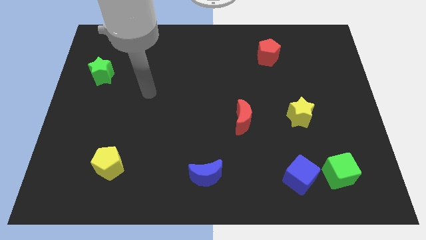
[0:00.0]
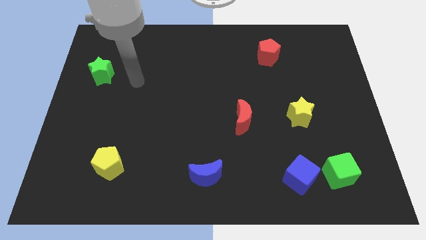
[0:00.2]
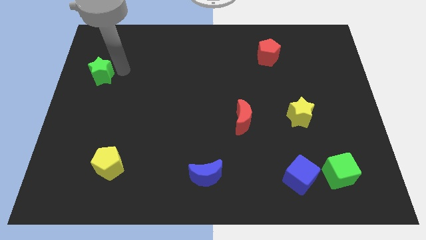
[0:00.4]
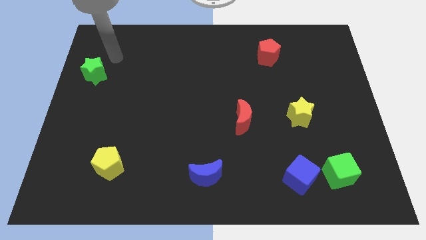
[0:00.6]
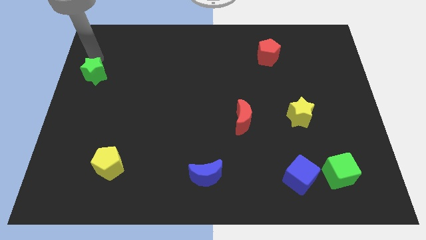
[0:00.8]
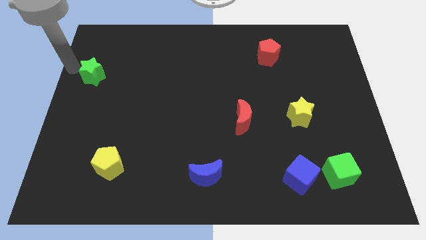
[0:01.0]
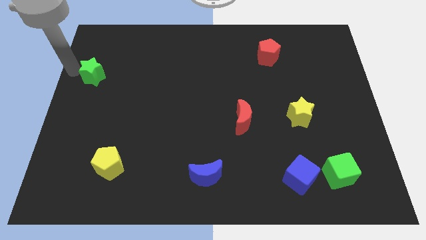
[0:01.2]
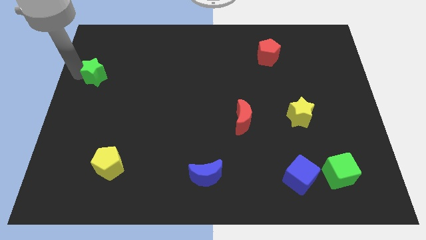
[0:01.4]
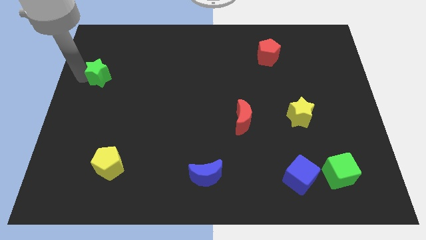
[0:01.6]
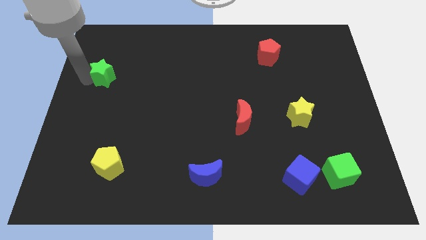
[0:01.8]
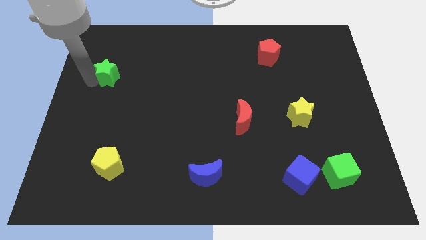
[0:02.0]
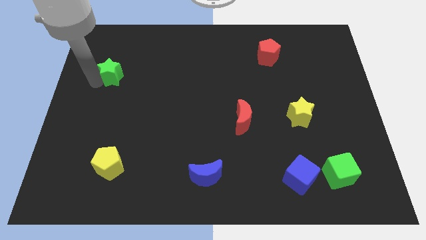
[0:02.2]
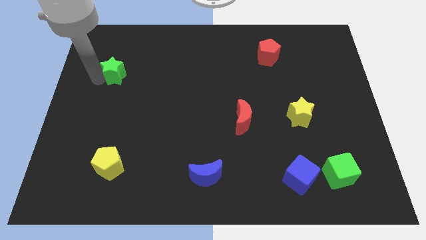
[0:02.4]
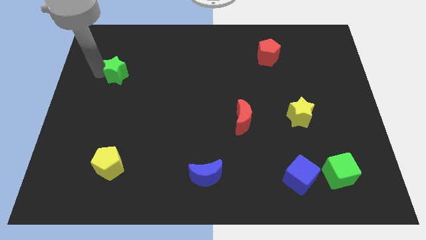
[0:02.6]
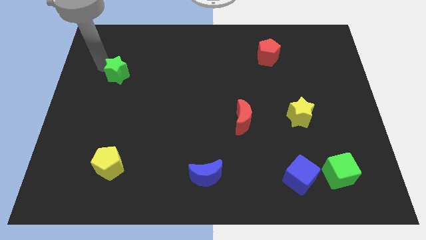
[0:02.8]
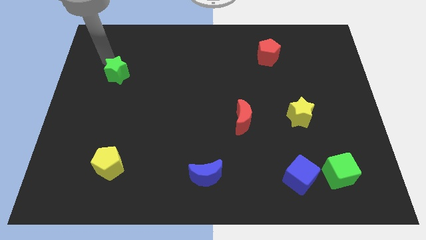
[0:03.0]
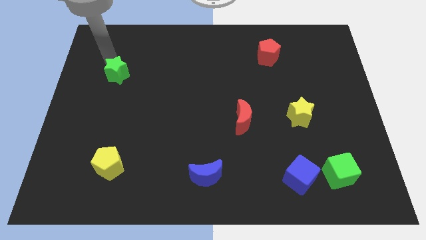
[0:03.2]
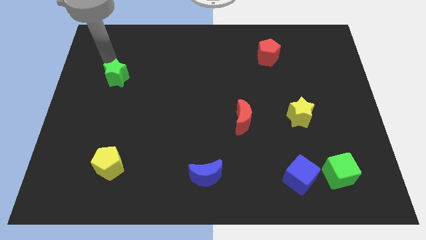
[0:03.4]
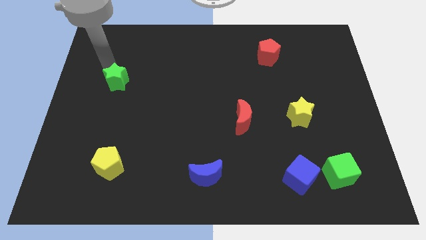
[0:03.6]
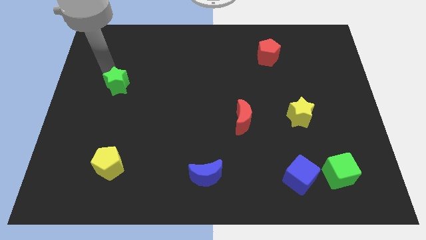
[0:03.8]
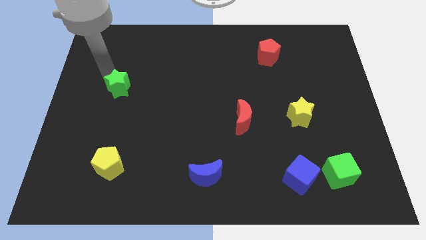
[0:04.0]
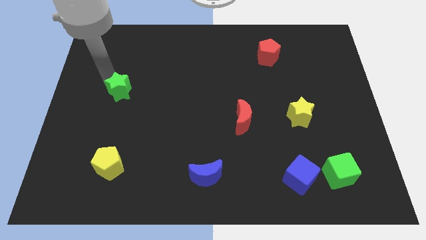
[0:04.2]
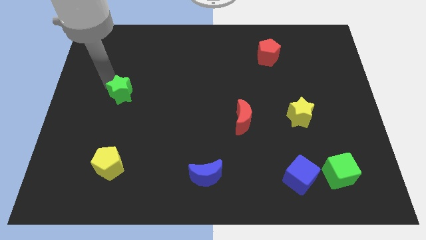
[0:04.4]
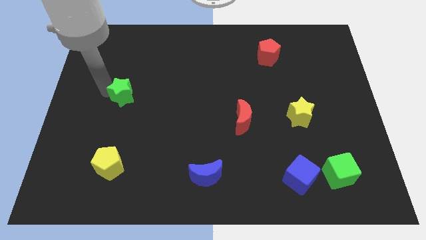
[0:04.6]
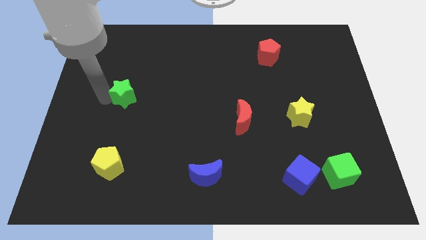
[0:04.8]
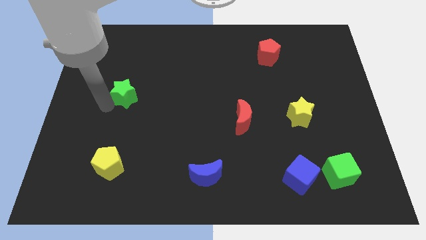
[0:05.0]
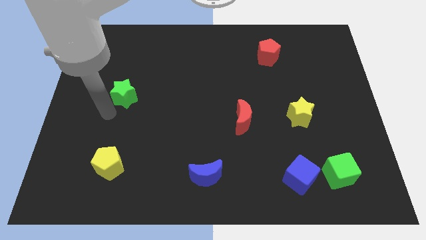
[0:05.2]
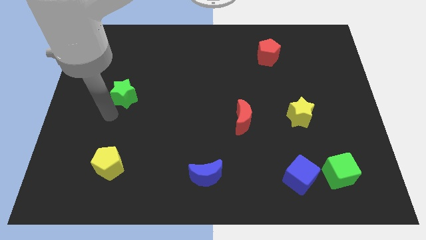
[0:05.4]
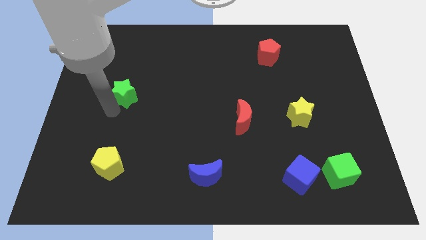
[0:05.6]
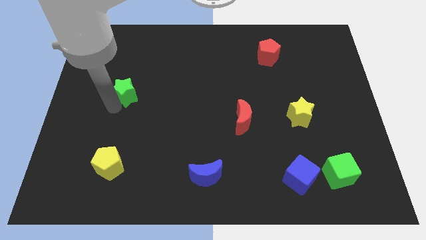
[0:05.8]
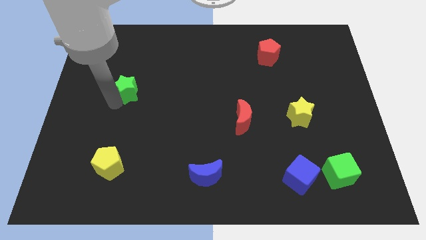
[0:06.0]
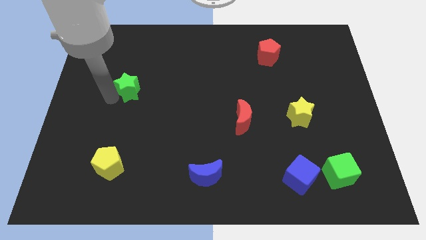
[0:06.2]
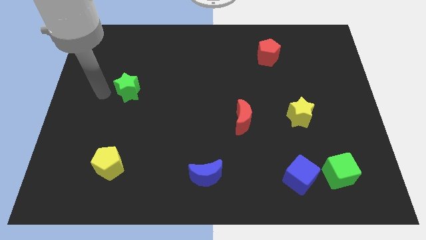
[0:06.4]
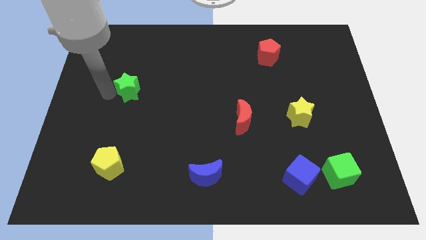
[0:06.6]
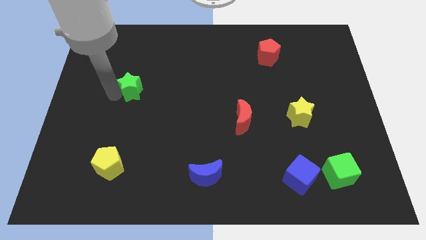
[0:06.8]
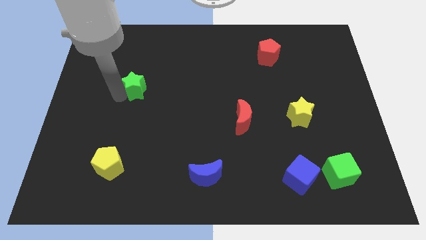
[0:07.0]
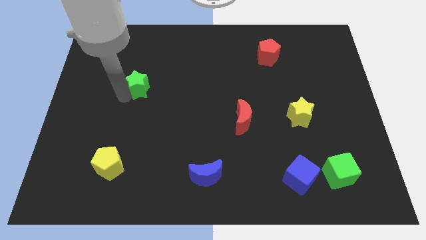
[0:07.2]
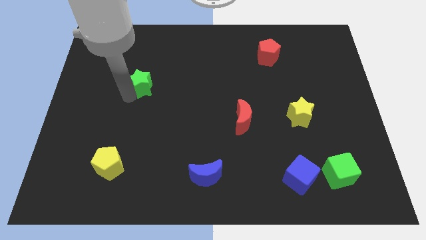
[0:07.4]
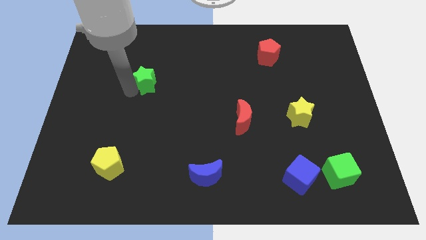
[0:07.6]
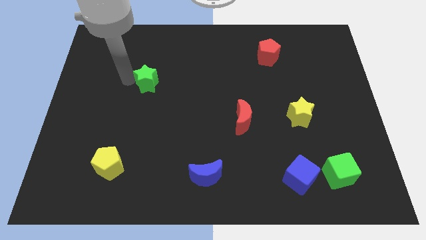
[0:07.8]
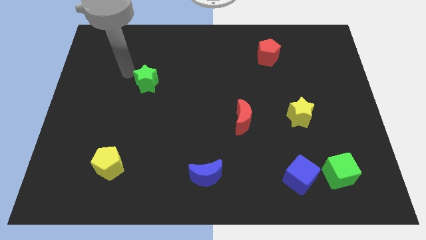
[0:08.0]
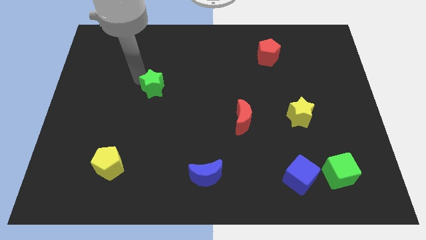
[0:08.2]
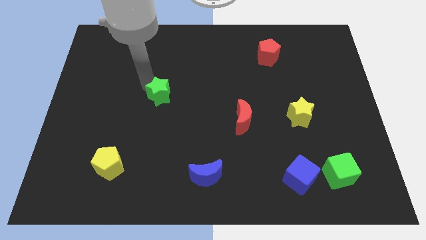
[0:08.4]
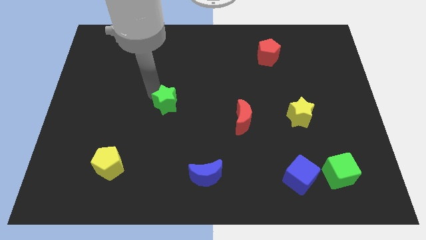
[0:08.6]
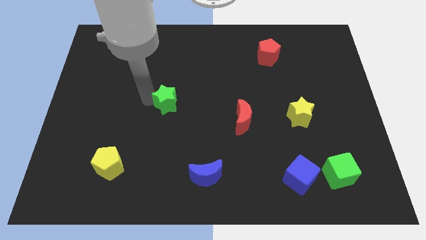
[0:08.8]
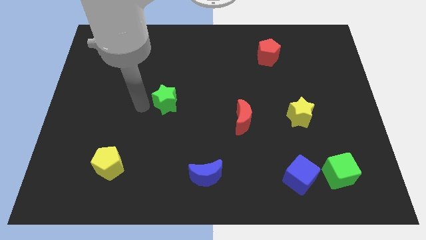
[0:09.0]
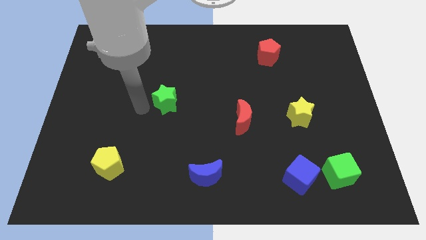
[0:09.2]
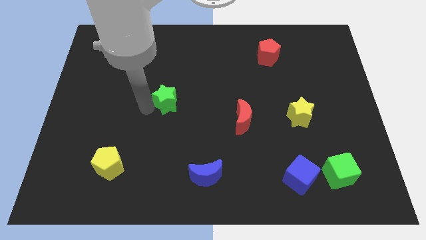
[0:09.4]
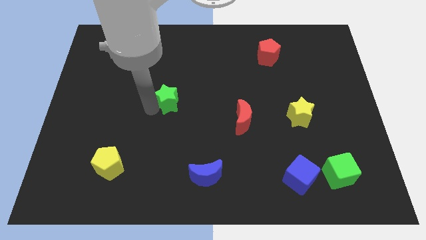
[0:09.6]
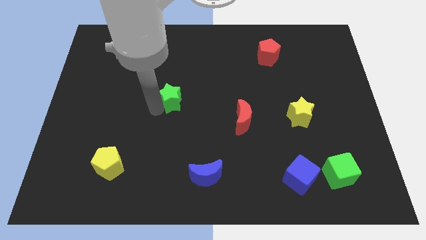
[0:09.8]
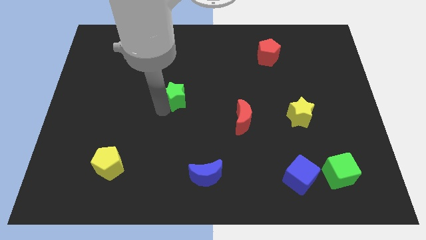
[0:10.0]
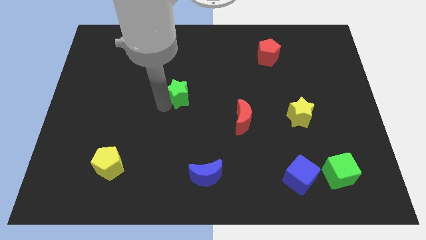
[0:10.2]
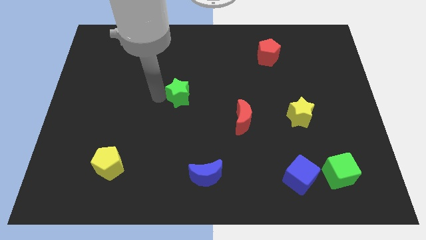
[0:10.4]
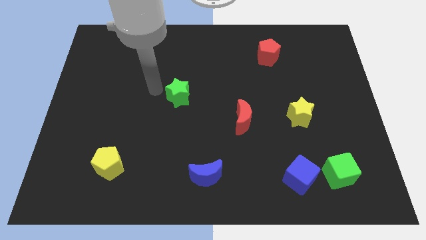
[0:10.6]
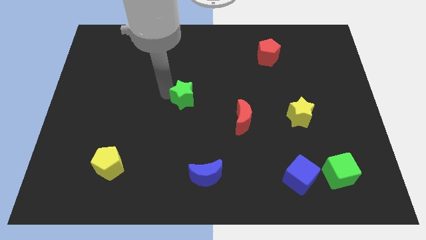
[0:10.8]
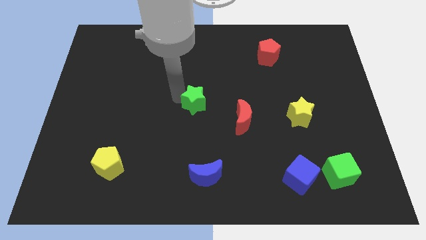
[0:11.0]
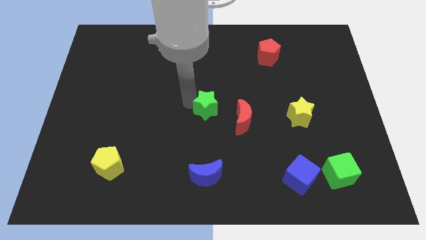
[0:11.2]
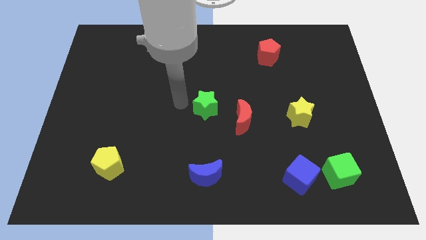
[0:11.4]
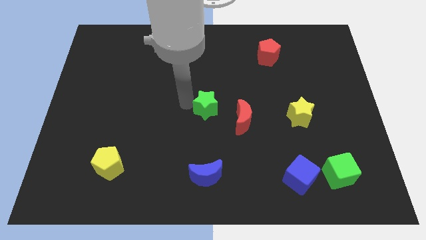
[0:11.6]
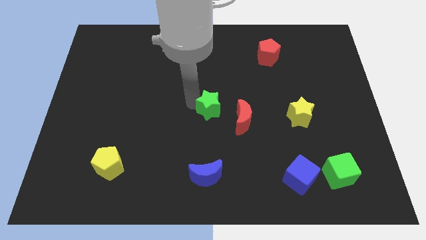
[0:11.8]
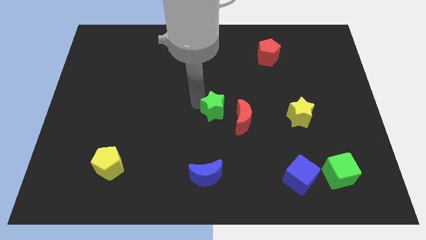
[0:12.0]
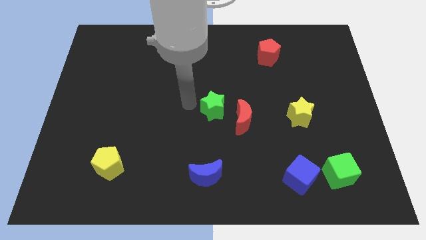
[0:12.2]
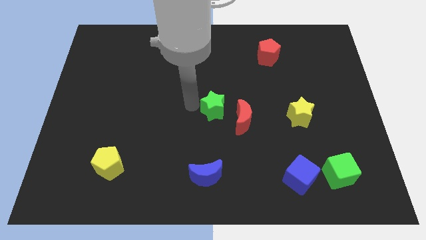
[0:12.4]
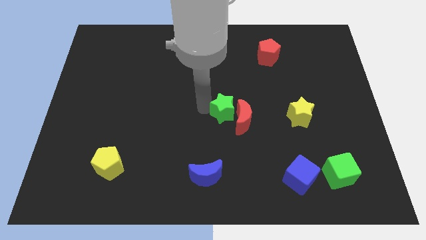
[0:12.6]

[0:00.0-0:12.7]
slide the green star towards the red moon

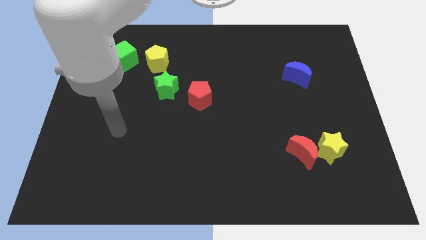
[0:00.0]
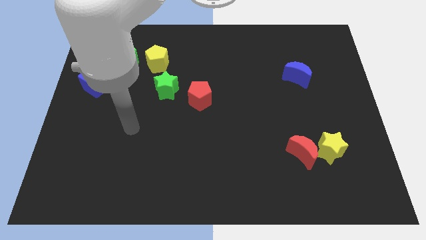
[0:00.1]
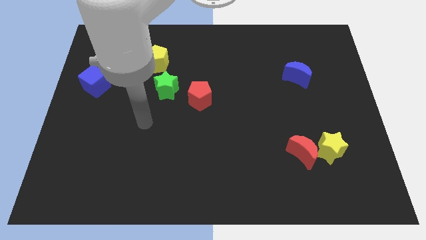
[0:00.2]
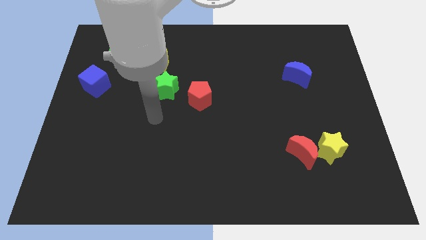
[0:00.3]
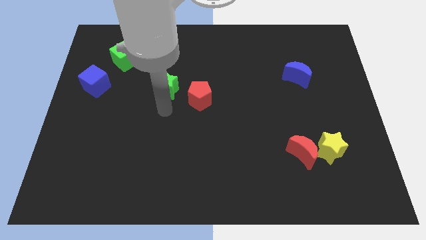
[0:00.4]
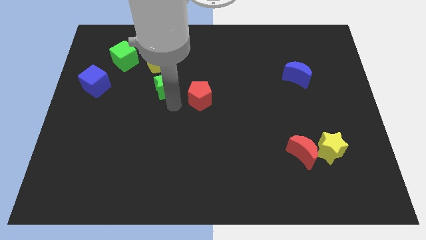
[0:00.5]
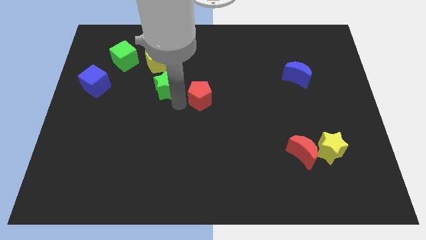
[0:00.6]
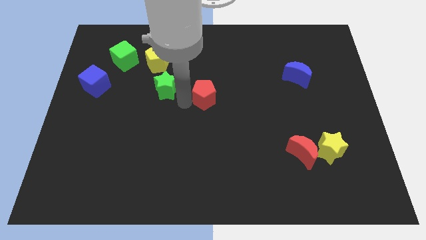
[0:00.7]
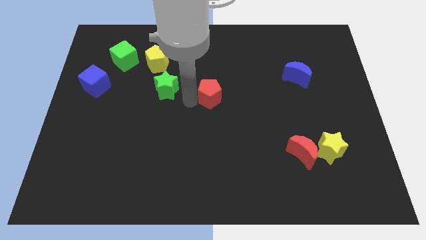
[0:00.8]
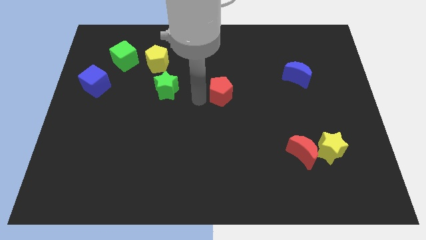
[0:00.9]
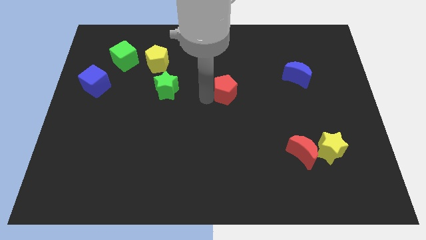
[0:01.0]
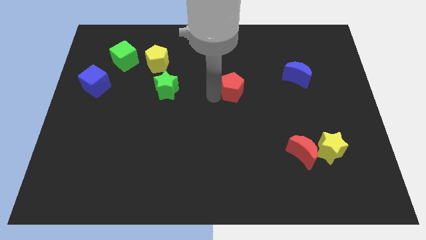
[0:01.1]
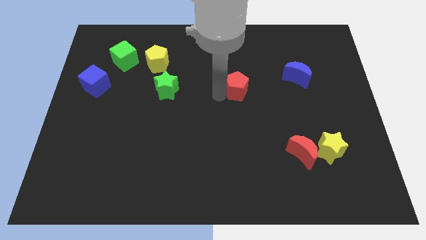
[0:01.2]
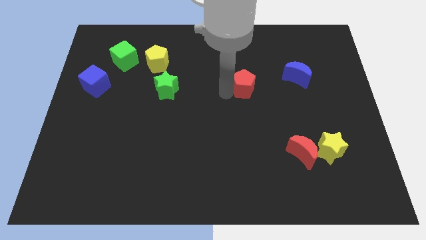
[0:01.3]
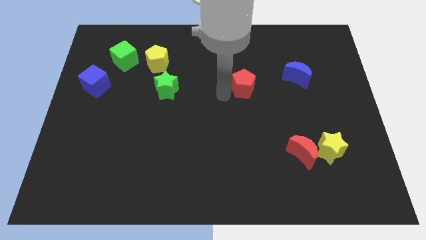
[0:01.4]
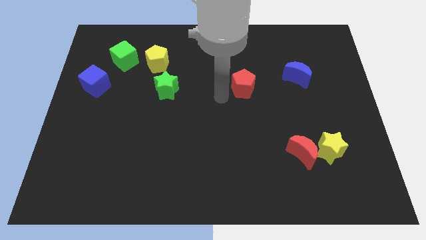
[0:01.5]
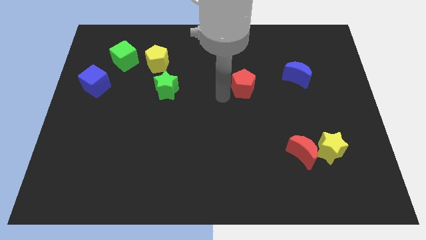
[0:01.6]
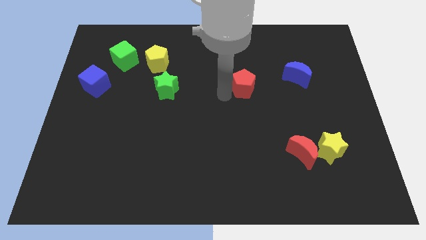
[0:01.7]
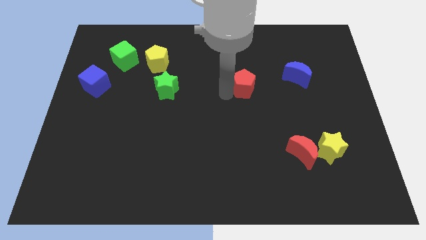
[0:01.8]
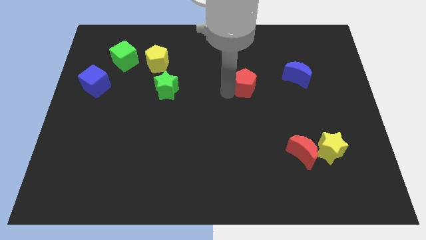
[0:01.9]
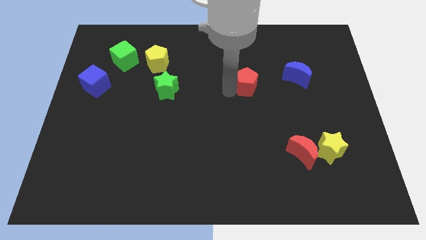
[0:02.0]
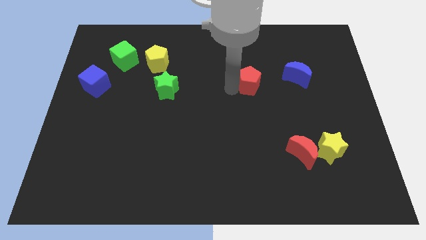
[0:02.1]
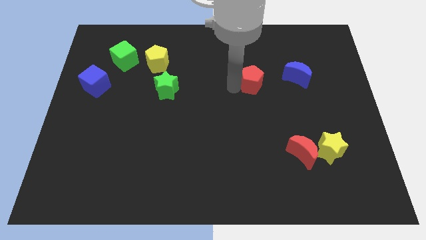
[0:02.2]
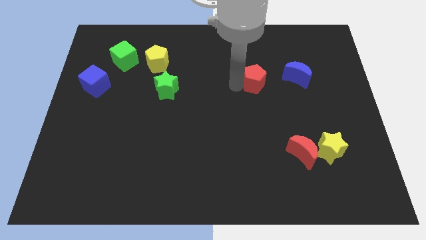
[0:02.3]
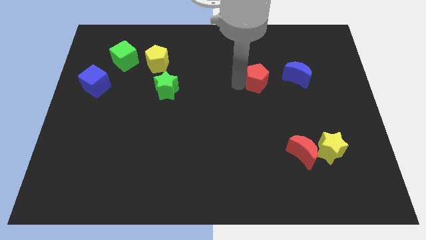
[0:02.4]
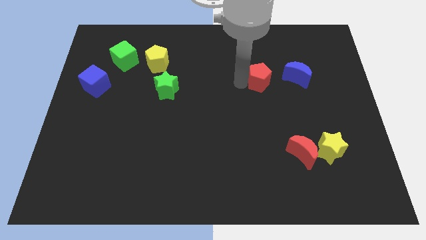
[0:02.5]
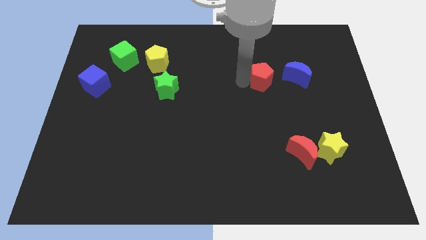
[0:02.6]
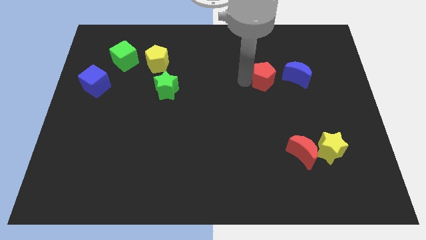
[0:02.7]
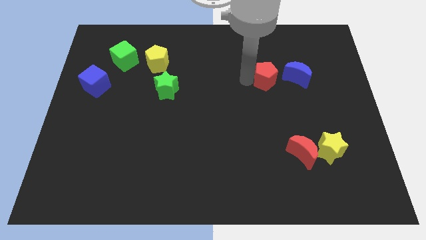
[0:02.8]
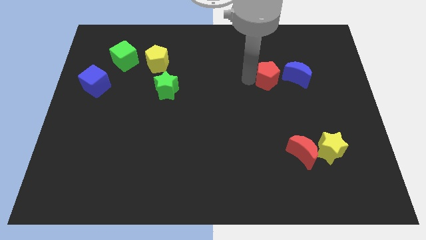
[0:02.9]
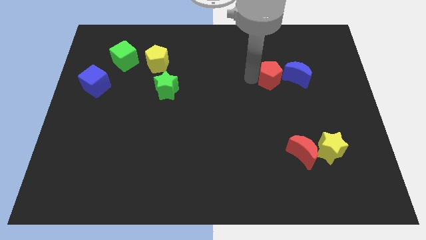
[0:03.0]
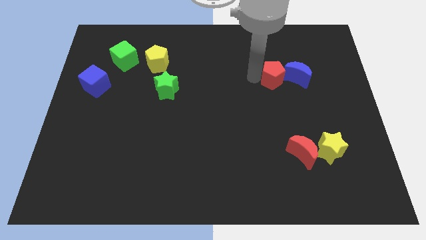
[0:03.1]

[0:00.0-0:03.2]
move the red pentagon close to the blue moon
